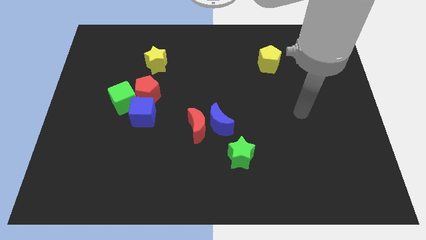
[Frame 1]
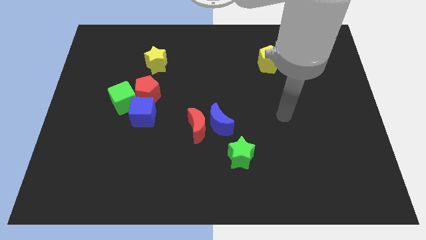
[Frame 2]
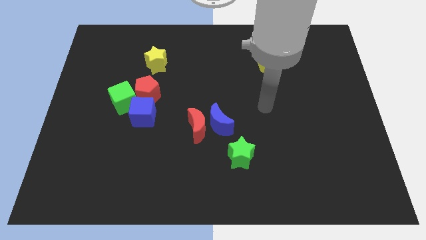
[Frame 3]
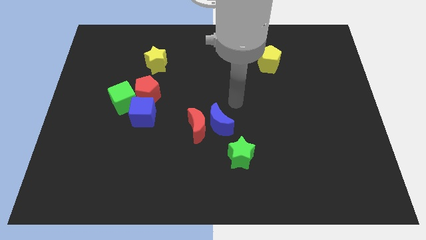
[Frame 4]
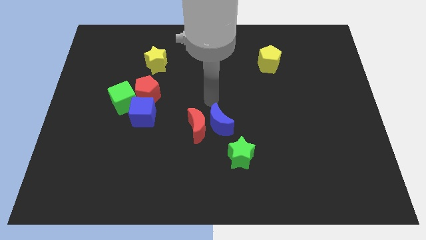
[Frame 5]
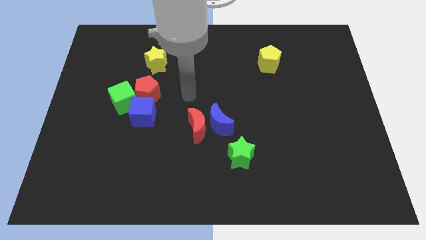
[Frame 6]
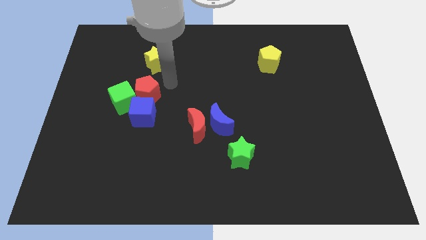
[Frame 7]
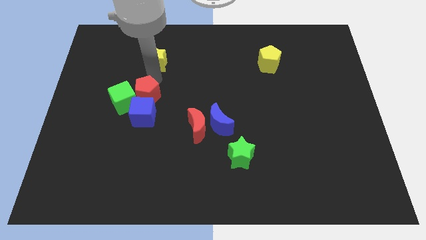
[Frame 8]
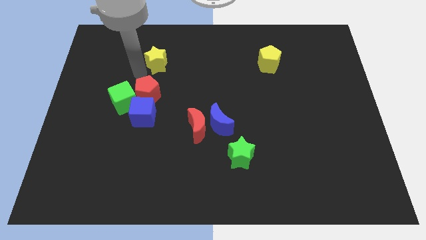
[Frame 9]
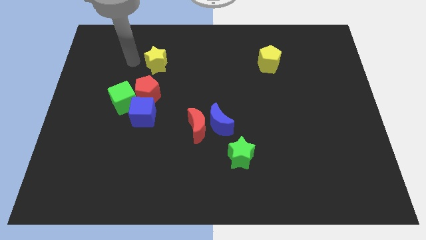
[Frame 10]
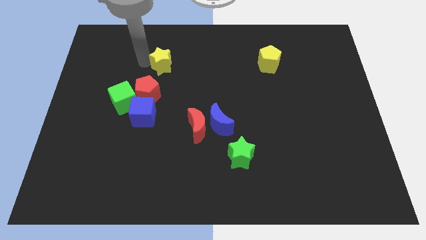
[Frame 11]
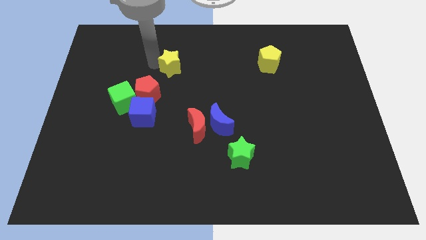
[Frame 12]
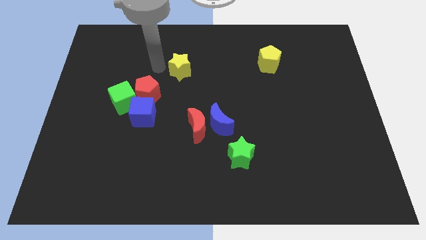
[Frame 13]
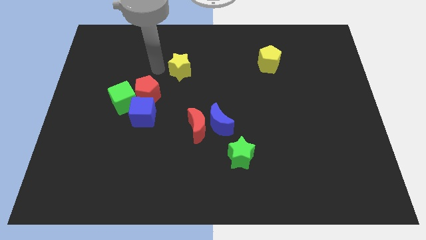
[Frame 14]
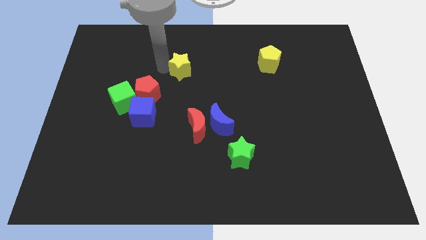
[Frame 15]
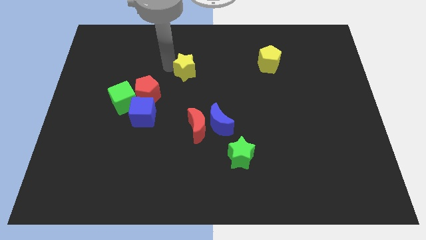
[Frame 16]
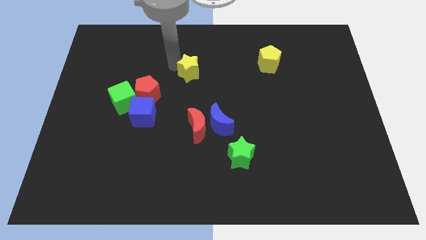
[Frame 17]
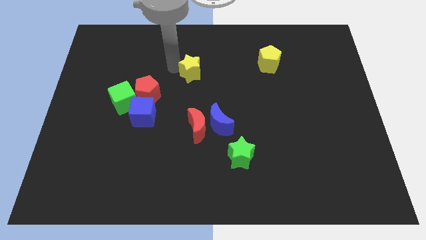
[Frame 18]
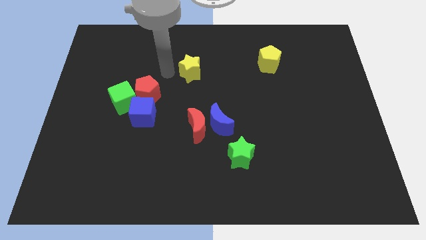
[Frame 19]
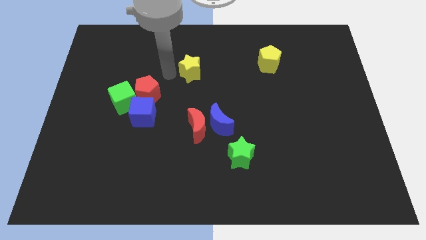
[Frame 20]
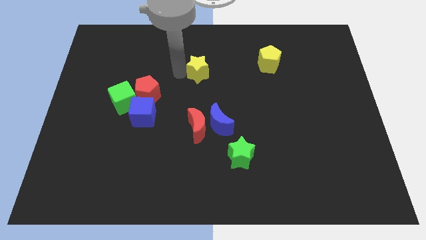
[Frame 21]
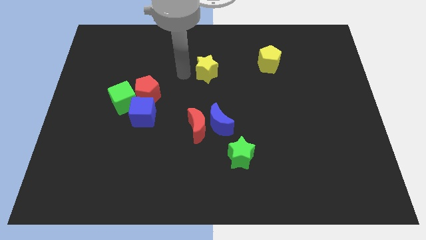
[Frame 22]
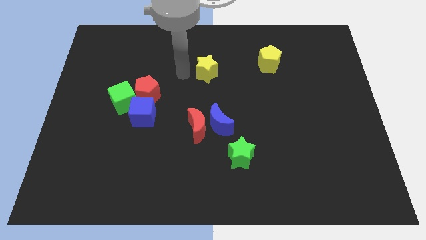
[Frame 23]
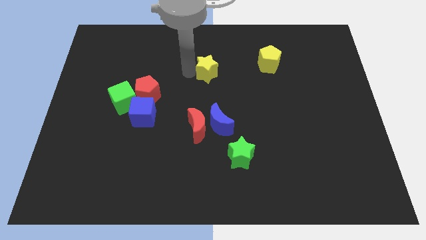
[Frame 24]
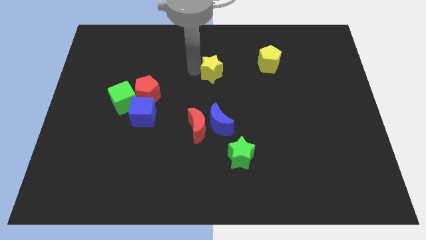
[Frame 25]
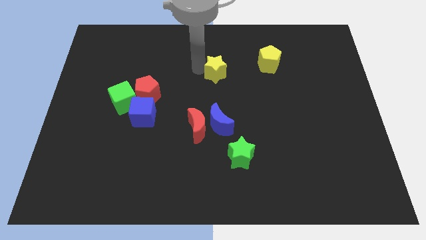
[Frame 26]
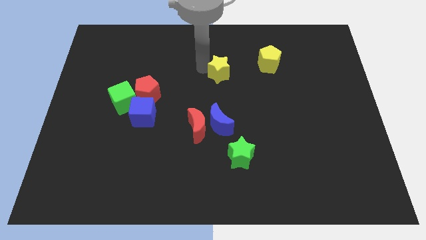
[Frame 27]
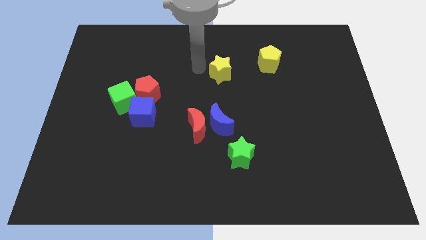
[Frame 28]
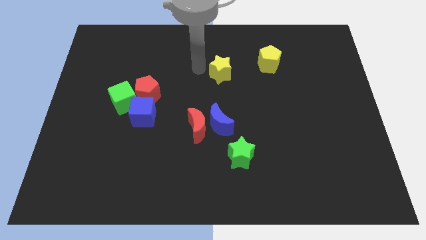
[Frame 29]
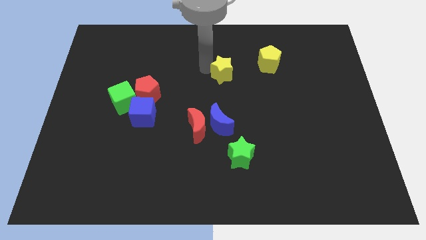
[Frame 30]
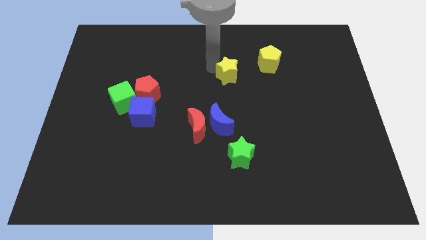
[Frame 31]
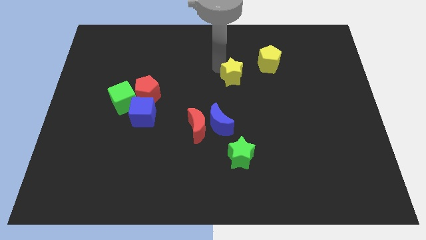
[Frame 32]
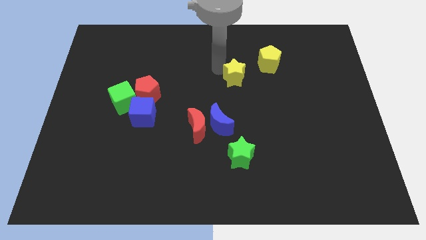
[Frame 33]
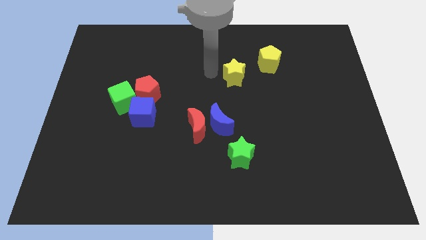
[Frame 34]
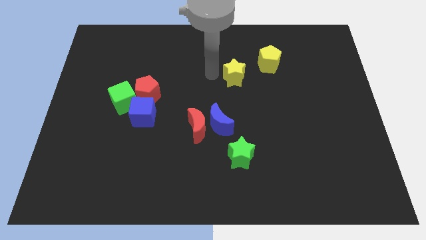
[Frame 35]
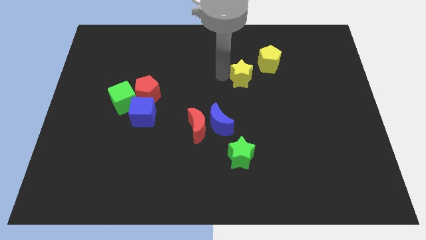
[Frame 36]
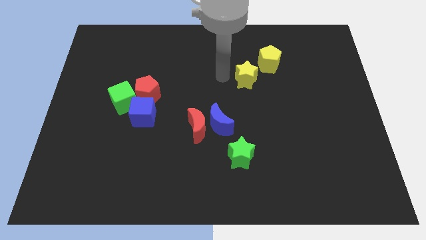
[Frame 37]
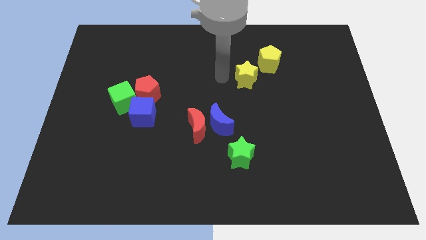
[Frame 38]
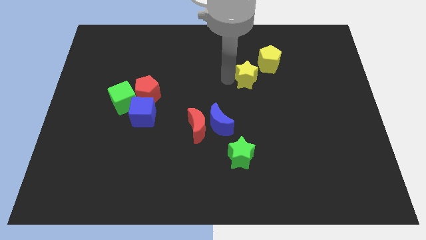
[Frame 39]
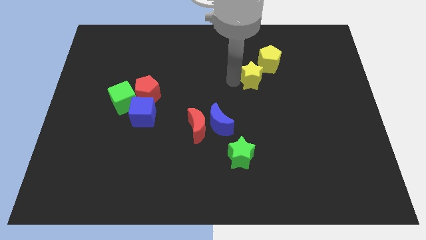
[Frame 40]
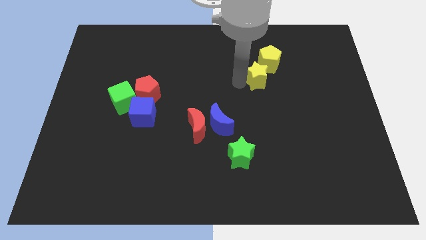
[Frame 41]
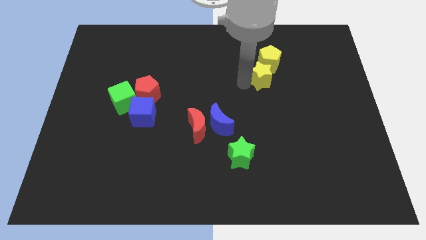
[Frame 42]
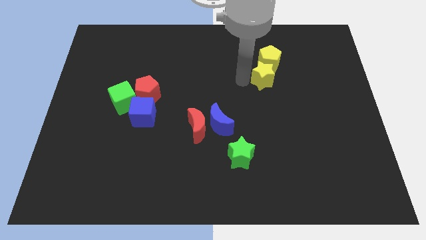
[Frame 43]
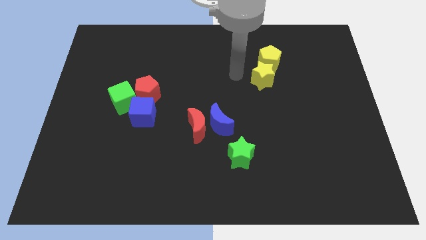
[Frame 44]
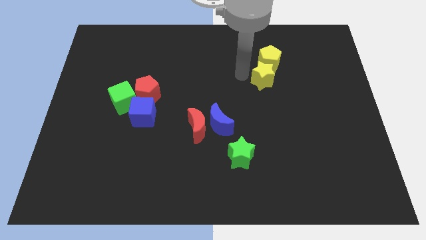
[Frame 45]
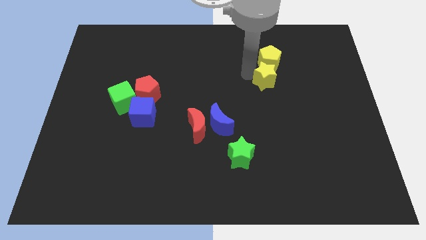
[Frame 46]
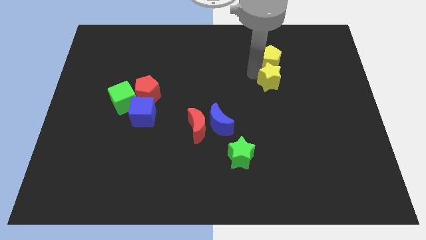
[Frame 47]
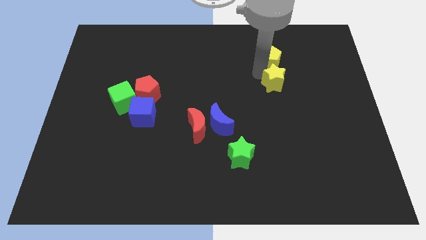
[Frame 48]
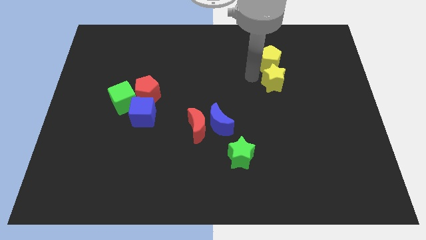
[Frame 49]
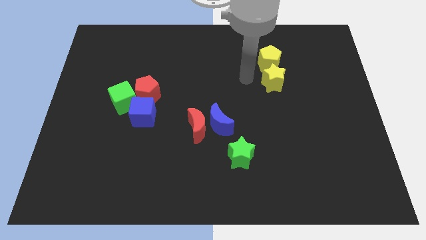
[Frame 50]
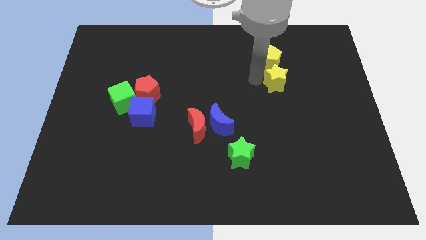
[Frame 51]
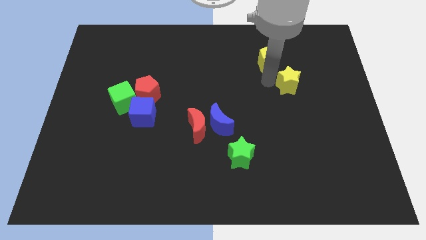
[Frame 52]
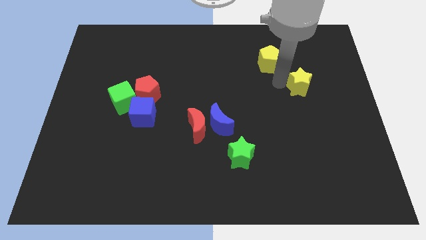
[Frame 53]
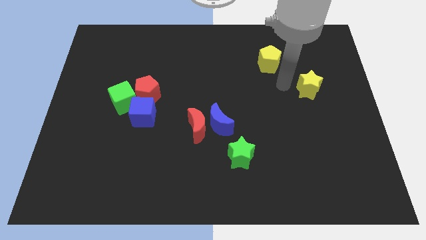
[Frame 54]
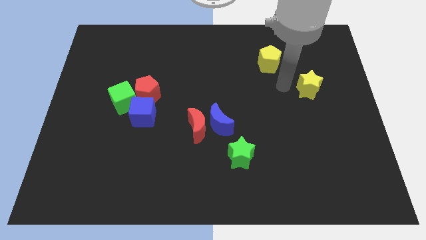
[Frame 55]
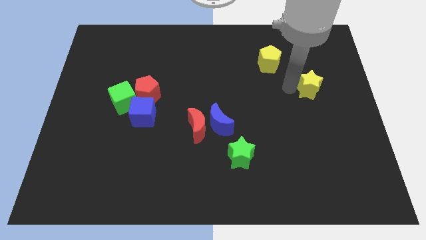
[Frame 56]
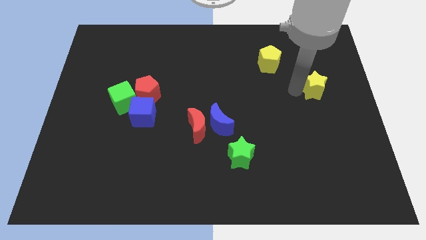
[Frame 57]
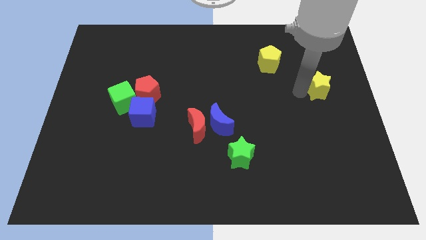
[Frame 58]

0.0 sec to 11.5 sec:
slide the yellow star to the right side of the board

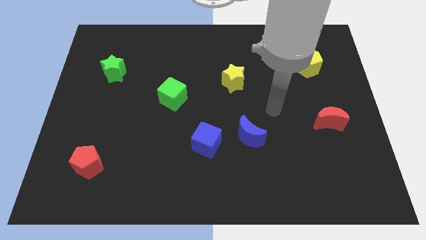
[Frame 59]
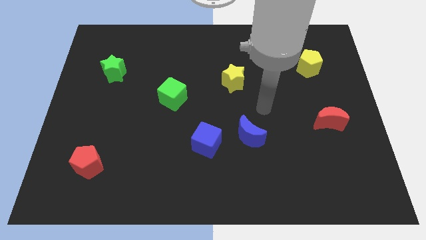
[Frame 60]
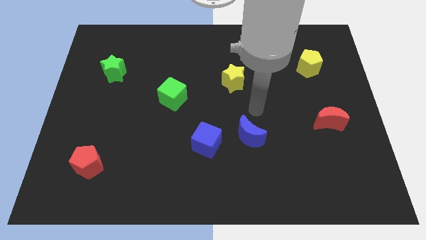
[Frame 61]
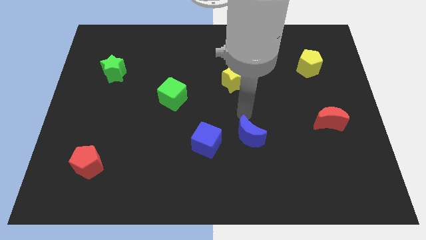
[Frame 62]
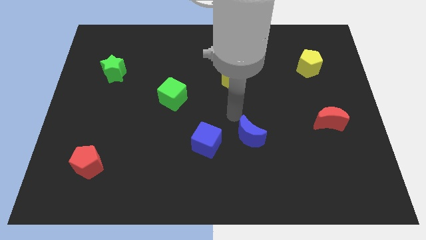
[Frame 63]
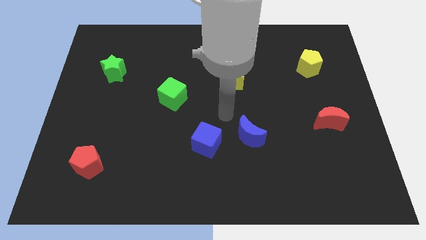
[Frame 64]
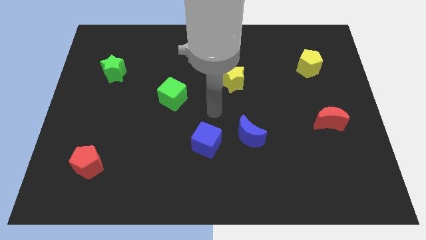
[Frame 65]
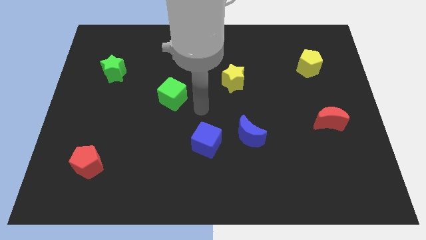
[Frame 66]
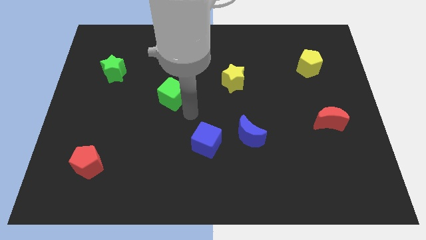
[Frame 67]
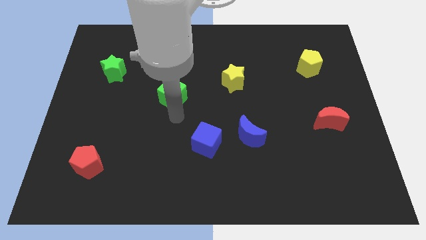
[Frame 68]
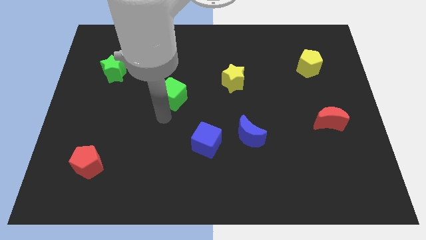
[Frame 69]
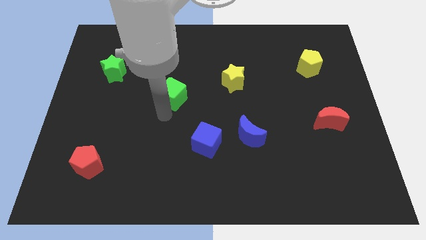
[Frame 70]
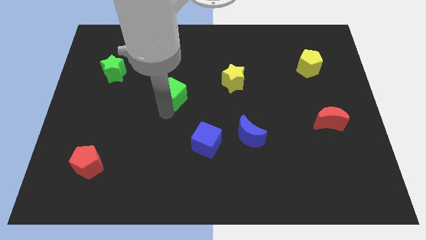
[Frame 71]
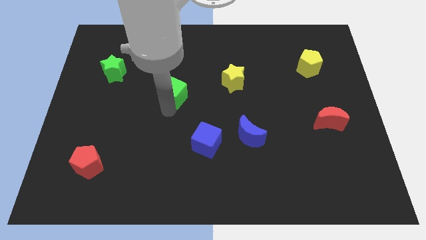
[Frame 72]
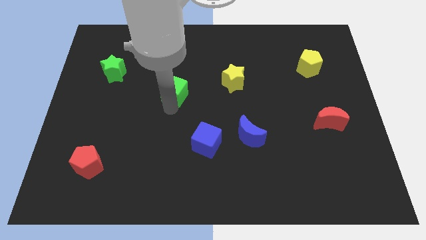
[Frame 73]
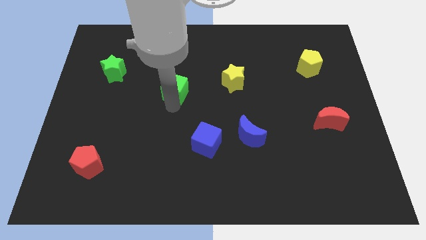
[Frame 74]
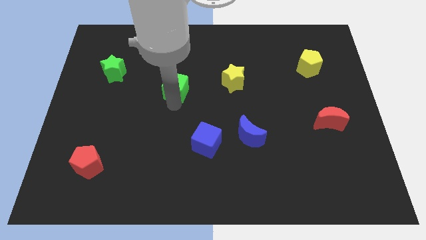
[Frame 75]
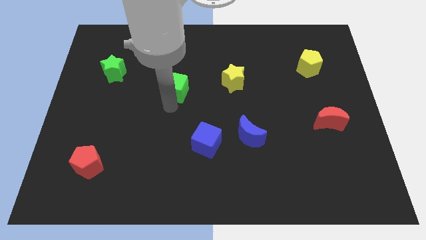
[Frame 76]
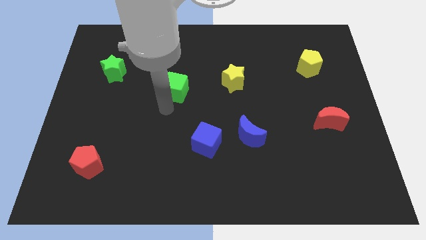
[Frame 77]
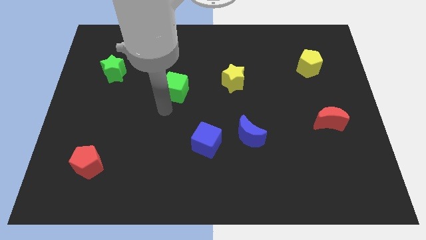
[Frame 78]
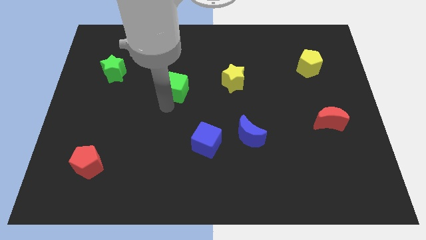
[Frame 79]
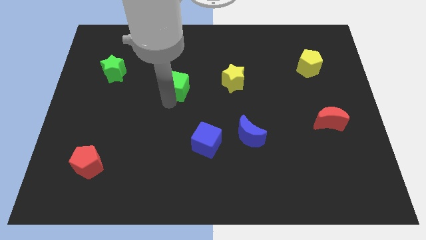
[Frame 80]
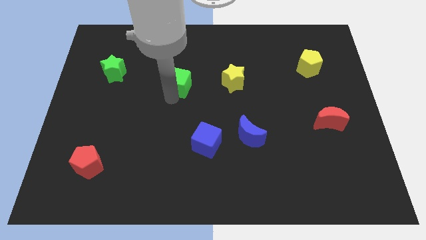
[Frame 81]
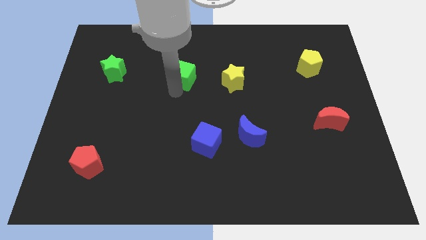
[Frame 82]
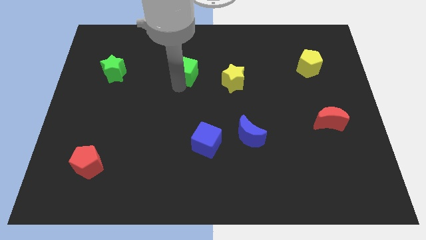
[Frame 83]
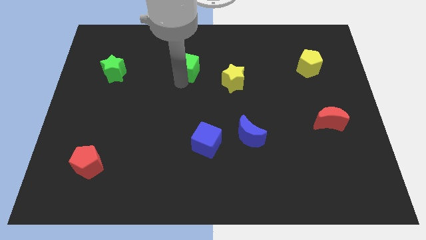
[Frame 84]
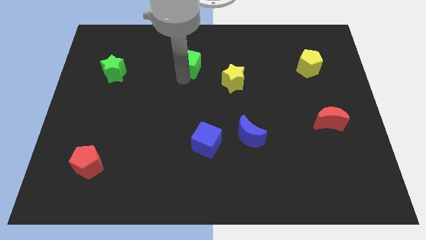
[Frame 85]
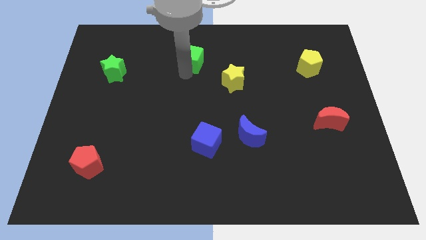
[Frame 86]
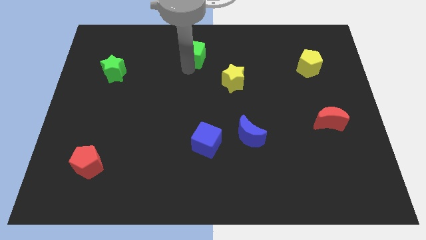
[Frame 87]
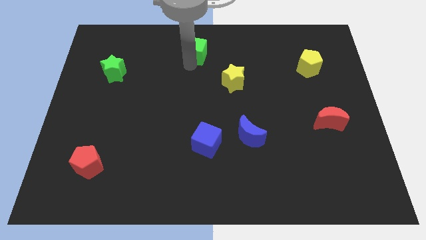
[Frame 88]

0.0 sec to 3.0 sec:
push the green cube to the top side
